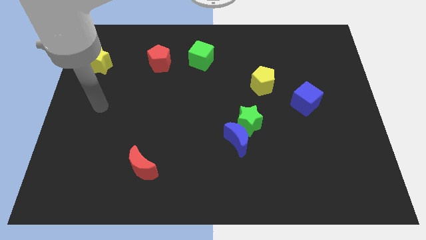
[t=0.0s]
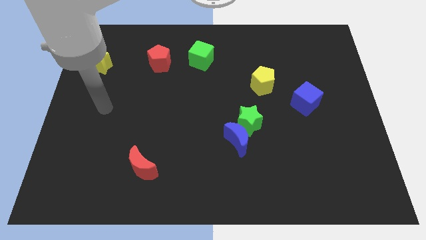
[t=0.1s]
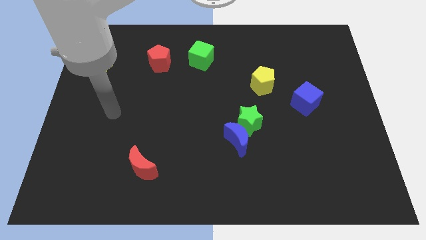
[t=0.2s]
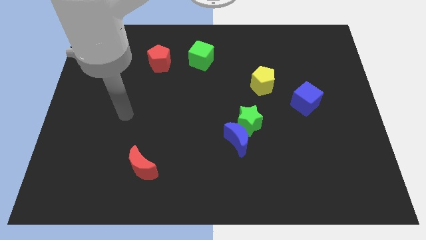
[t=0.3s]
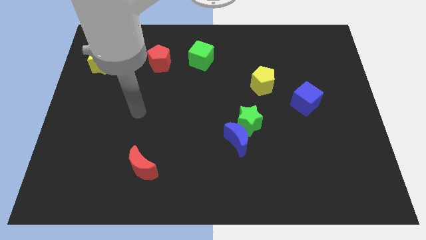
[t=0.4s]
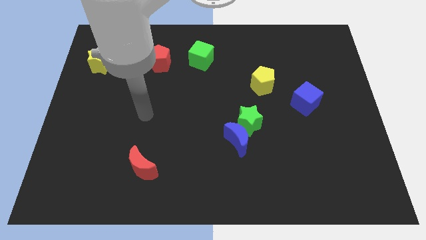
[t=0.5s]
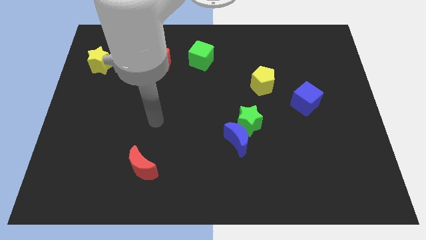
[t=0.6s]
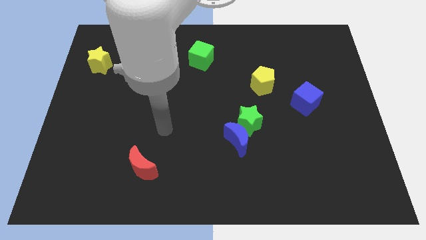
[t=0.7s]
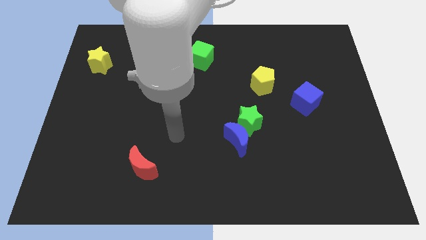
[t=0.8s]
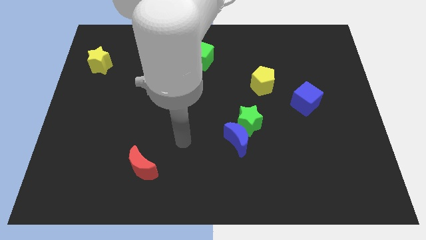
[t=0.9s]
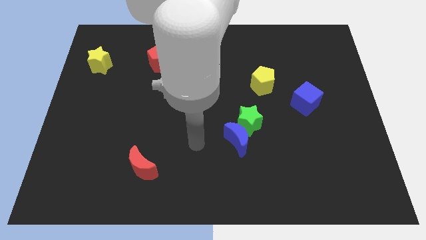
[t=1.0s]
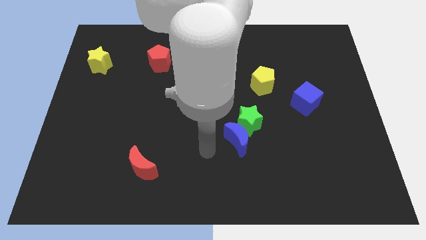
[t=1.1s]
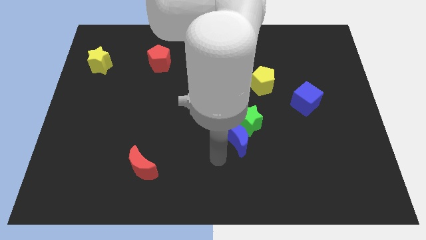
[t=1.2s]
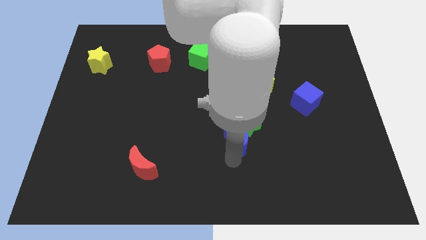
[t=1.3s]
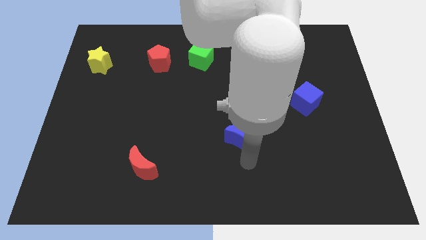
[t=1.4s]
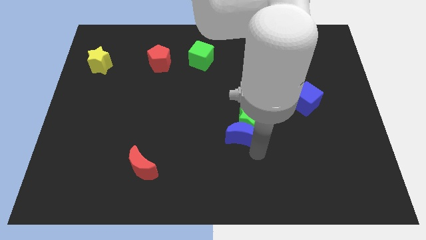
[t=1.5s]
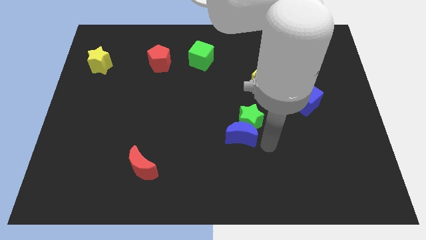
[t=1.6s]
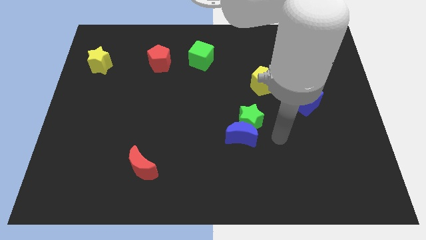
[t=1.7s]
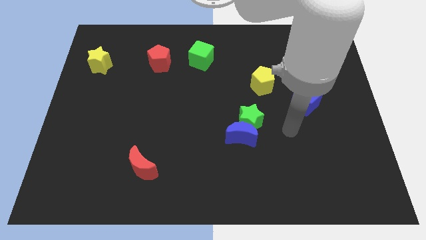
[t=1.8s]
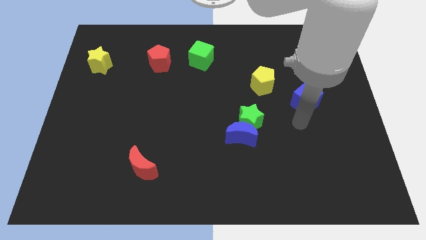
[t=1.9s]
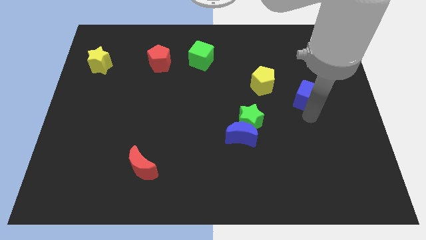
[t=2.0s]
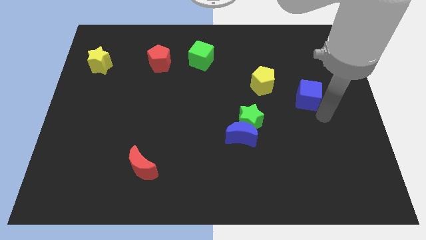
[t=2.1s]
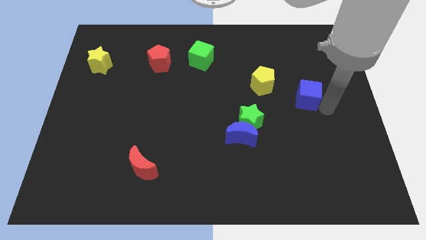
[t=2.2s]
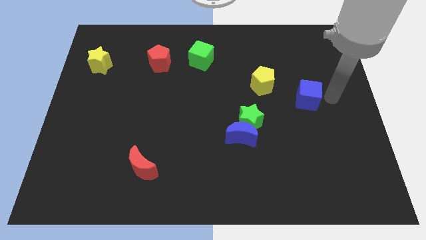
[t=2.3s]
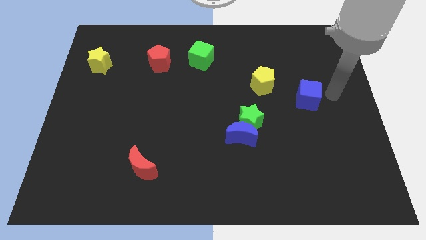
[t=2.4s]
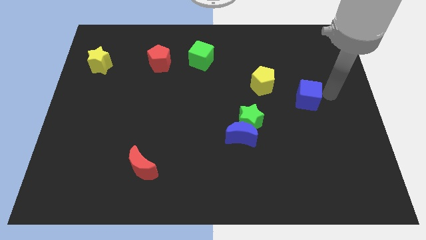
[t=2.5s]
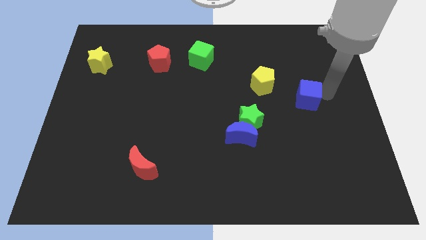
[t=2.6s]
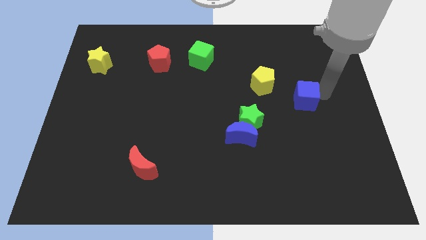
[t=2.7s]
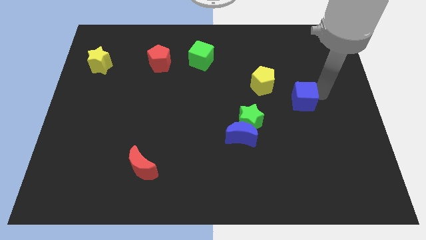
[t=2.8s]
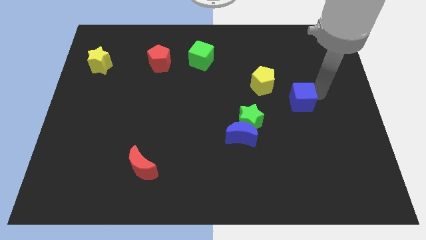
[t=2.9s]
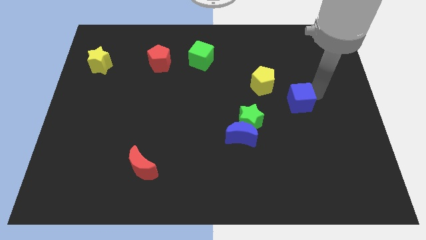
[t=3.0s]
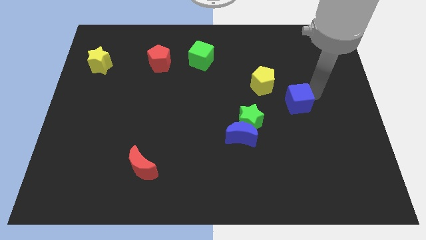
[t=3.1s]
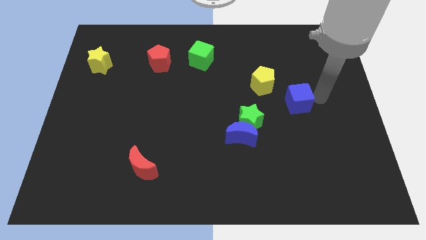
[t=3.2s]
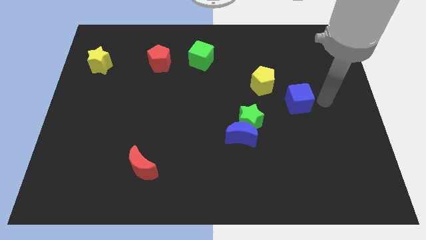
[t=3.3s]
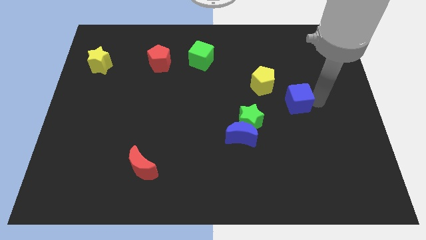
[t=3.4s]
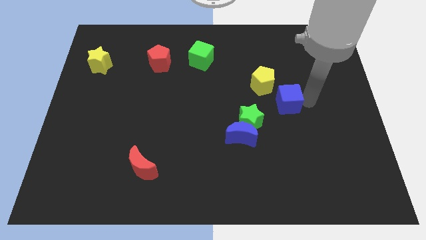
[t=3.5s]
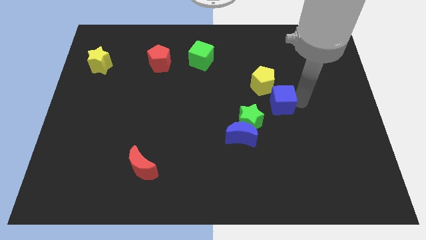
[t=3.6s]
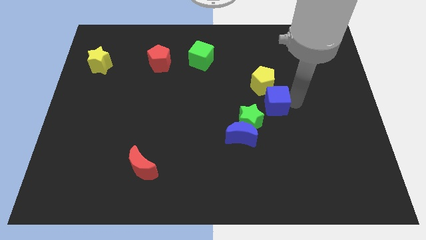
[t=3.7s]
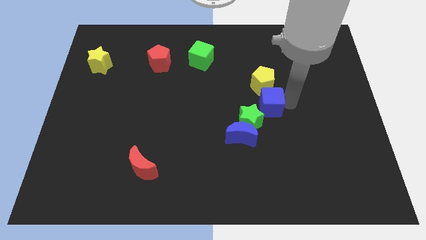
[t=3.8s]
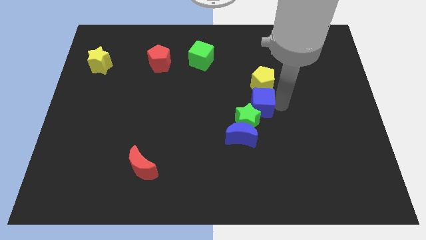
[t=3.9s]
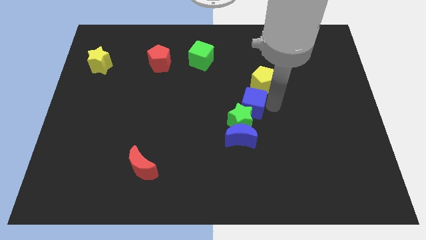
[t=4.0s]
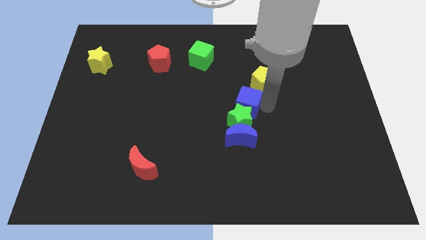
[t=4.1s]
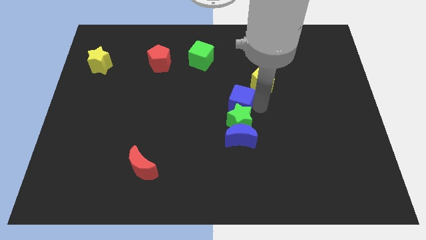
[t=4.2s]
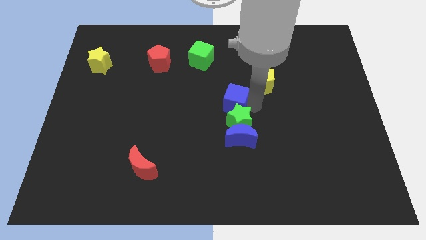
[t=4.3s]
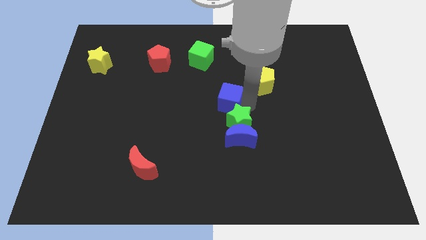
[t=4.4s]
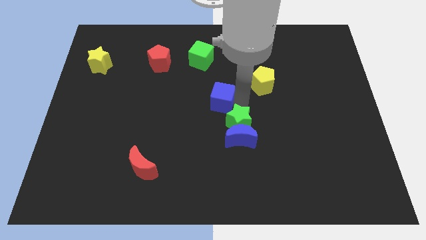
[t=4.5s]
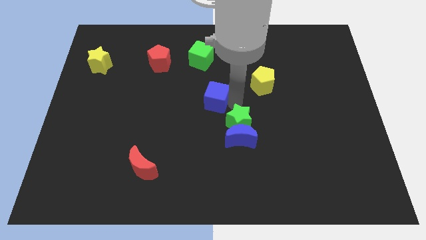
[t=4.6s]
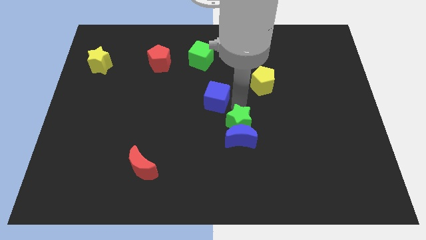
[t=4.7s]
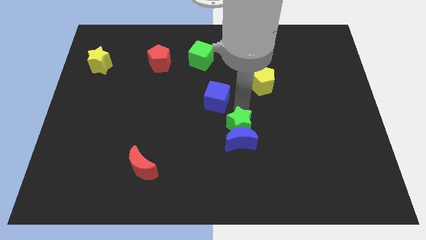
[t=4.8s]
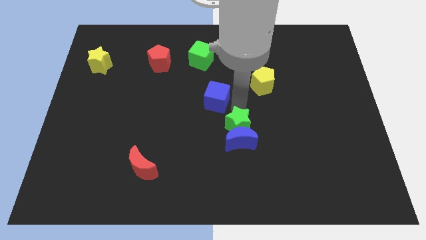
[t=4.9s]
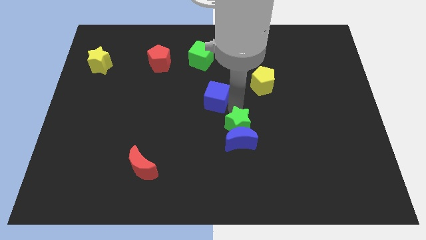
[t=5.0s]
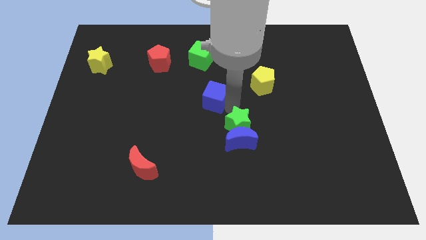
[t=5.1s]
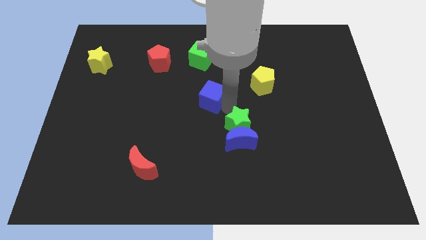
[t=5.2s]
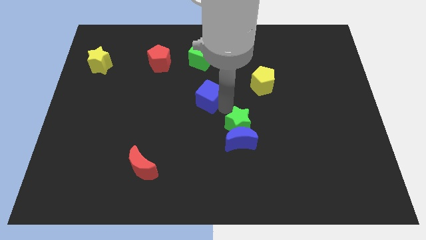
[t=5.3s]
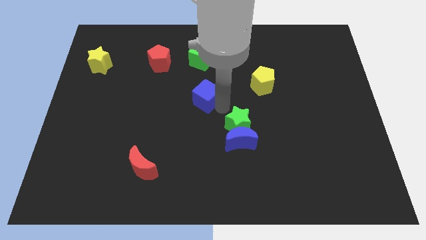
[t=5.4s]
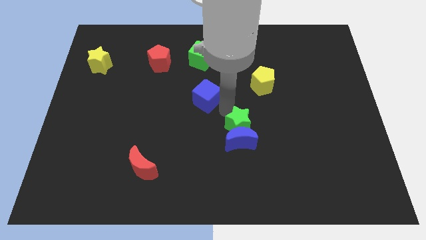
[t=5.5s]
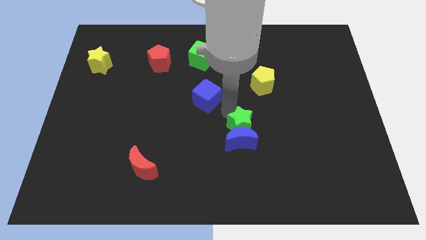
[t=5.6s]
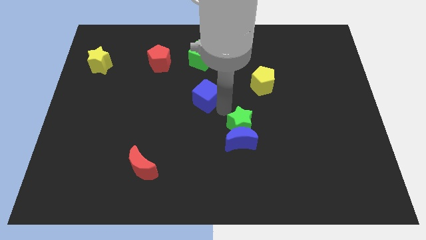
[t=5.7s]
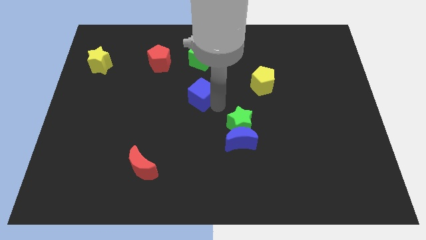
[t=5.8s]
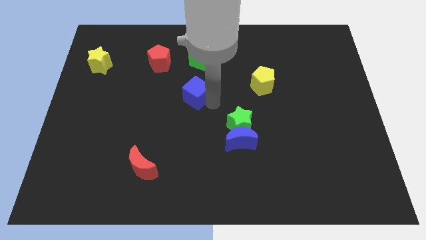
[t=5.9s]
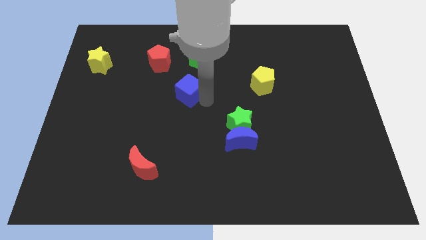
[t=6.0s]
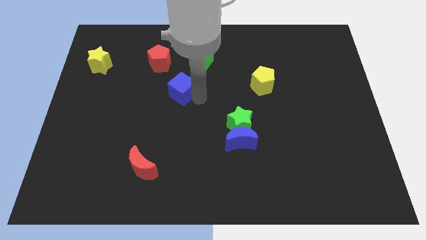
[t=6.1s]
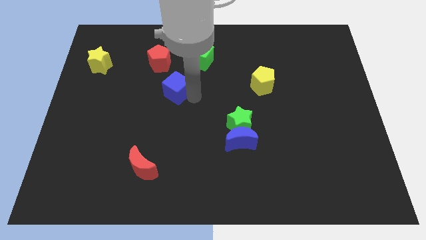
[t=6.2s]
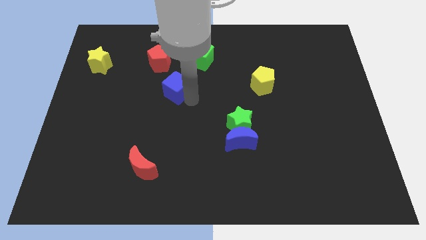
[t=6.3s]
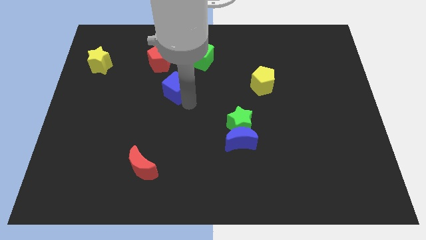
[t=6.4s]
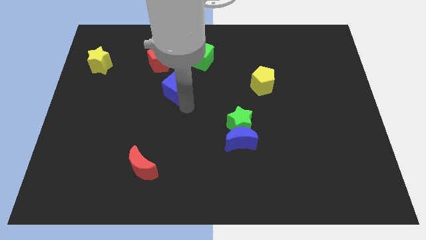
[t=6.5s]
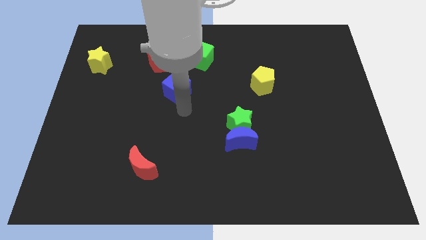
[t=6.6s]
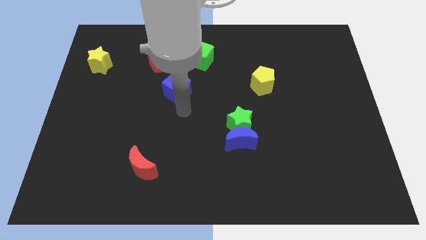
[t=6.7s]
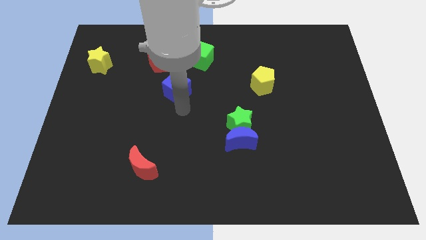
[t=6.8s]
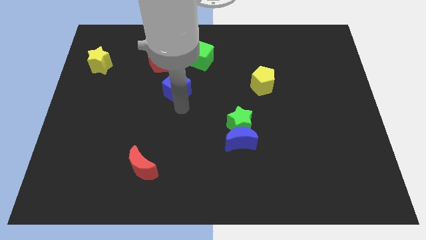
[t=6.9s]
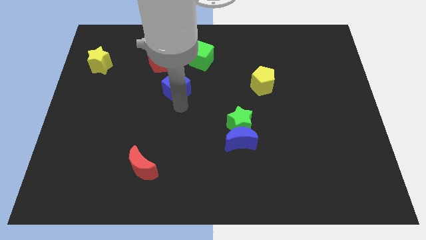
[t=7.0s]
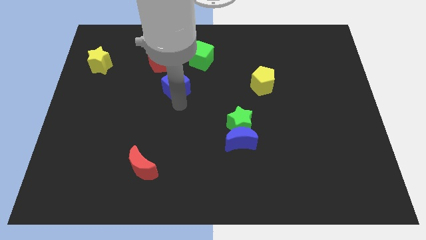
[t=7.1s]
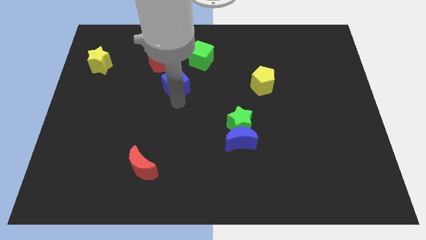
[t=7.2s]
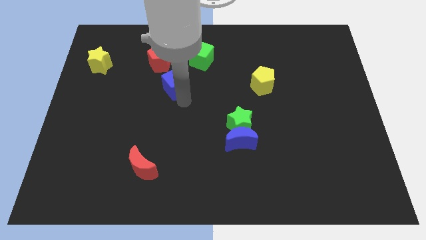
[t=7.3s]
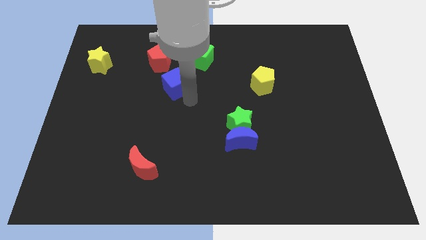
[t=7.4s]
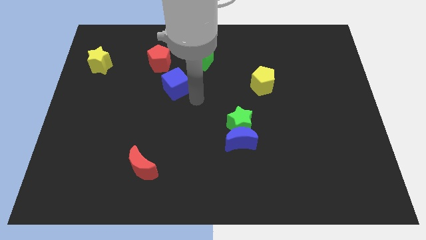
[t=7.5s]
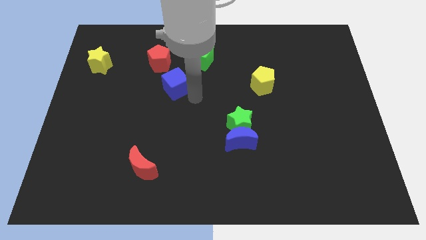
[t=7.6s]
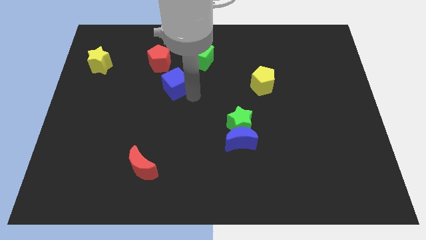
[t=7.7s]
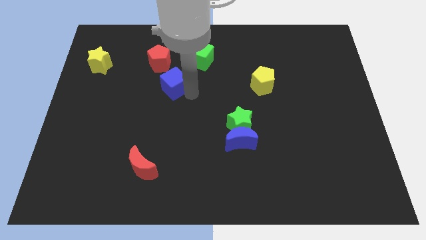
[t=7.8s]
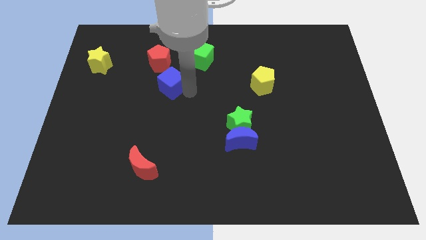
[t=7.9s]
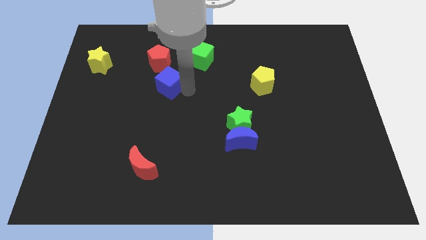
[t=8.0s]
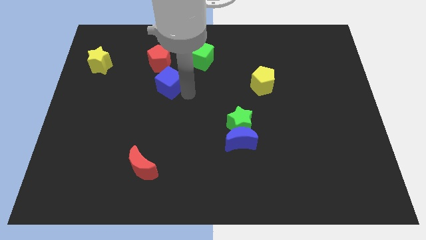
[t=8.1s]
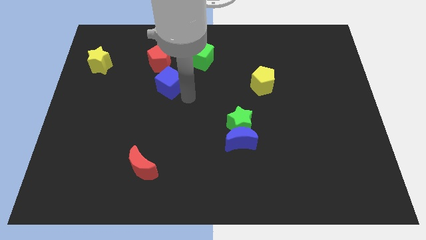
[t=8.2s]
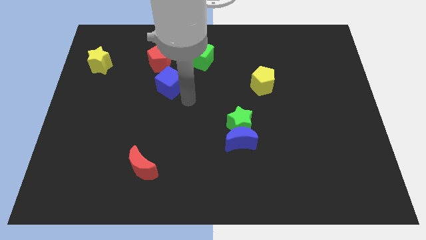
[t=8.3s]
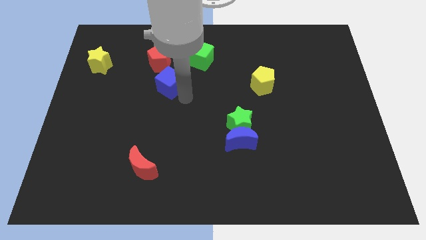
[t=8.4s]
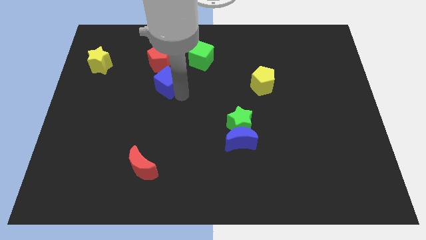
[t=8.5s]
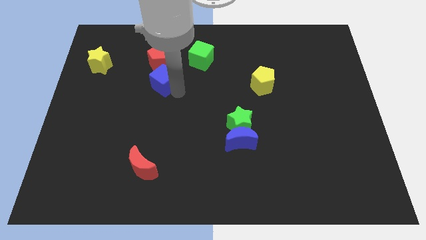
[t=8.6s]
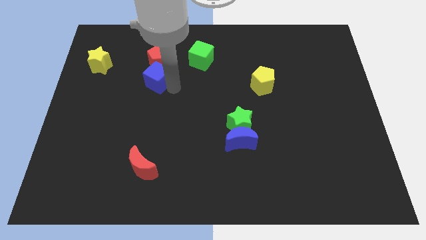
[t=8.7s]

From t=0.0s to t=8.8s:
move the blue cube to the bottom left side of the red pentagon
